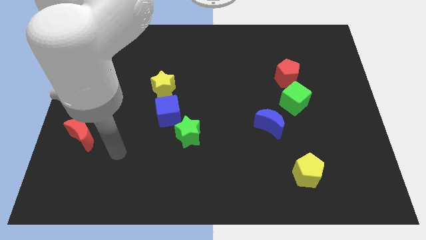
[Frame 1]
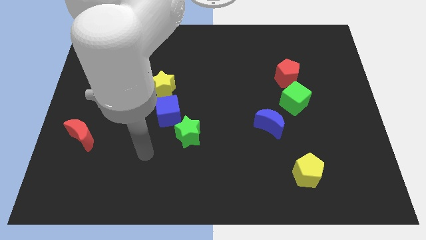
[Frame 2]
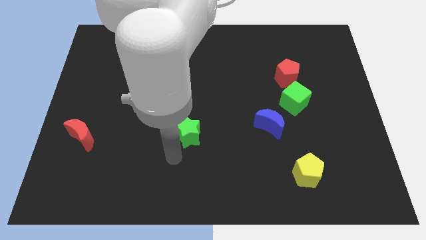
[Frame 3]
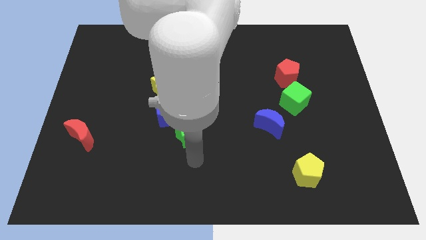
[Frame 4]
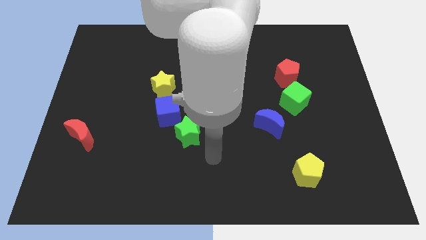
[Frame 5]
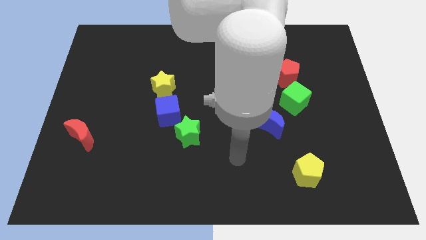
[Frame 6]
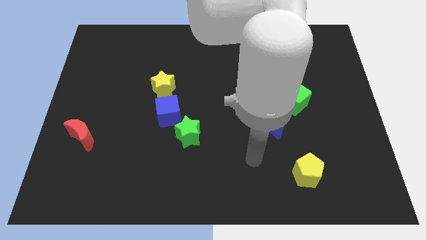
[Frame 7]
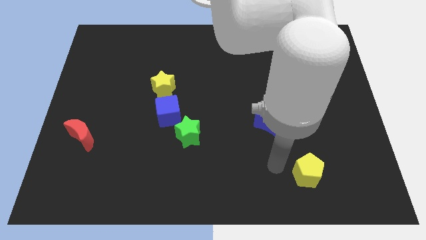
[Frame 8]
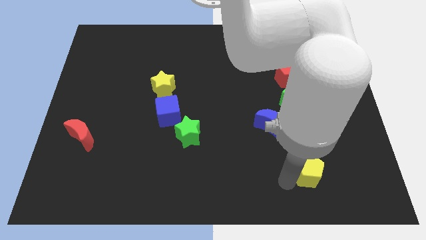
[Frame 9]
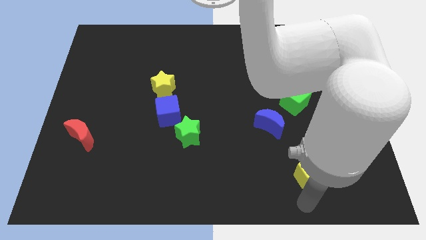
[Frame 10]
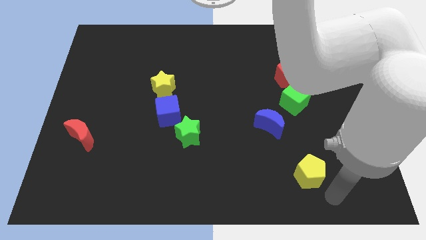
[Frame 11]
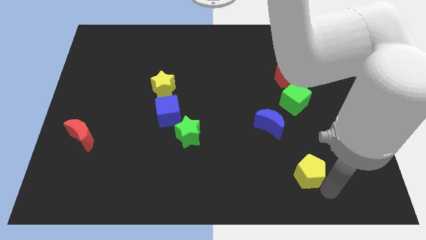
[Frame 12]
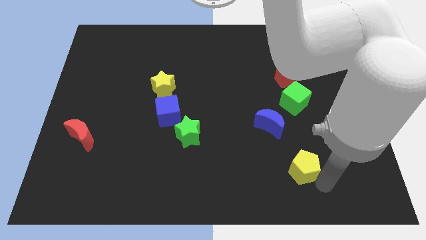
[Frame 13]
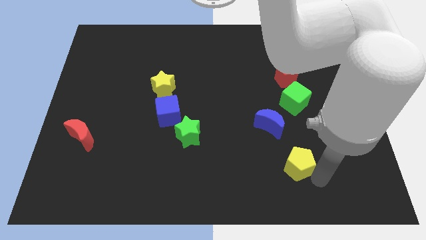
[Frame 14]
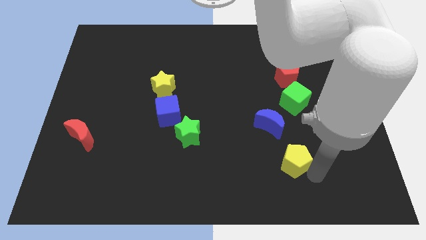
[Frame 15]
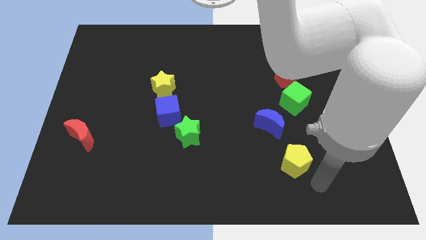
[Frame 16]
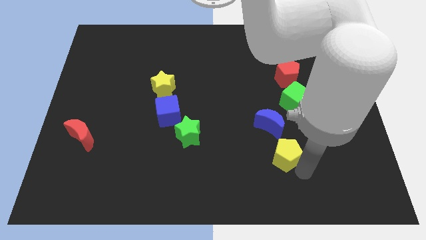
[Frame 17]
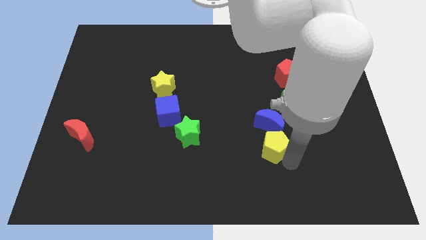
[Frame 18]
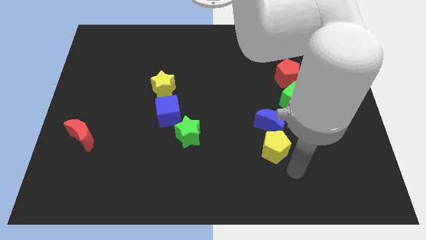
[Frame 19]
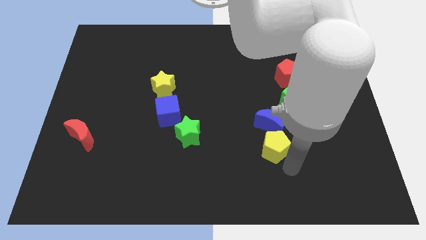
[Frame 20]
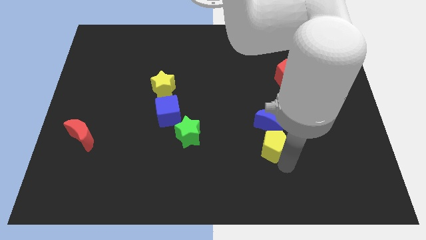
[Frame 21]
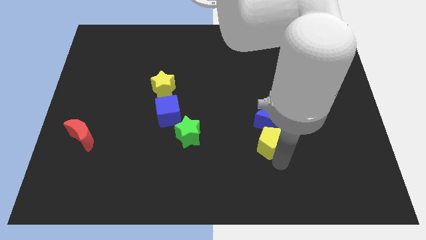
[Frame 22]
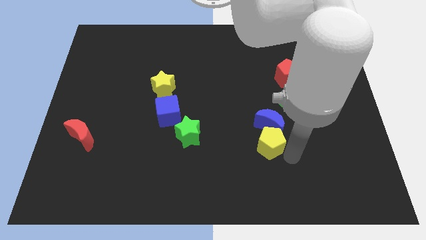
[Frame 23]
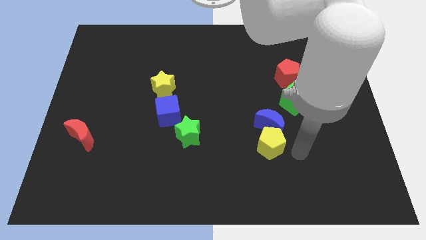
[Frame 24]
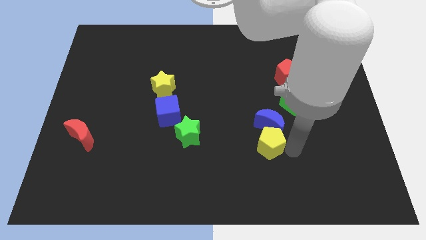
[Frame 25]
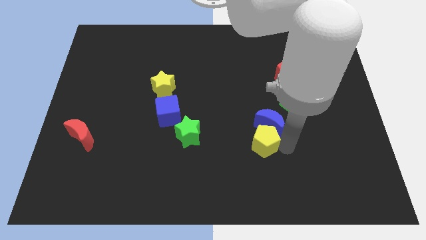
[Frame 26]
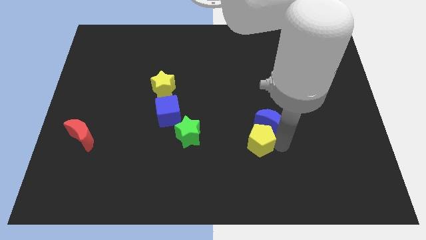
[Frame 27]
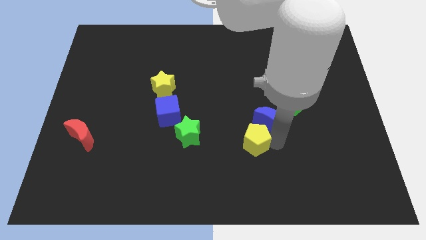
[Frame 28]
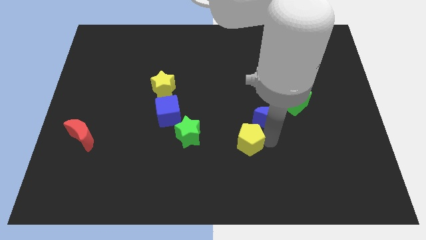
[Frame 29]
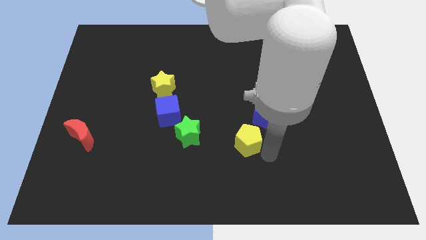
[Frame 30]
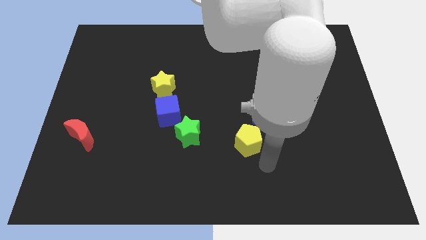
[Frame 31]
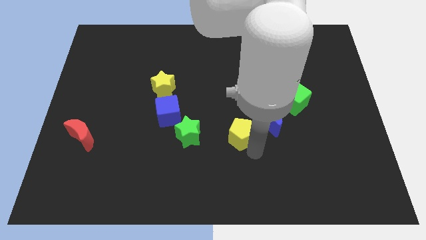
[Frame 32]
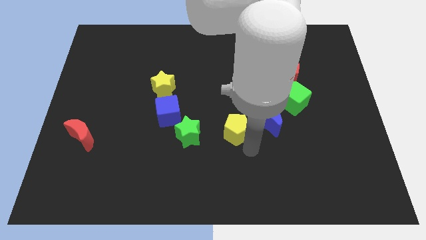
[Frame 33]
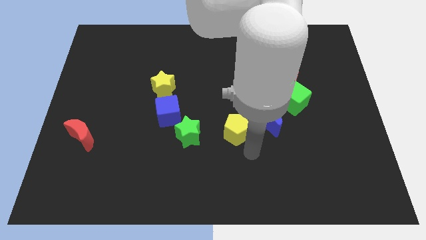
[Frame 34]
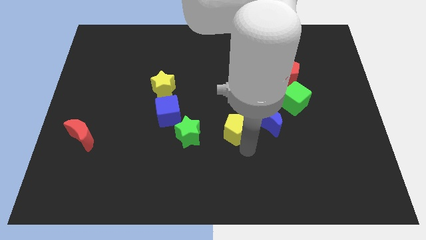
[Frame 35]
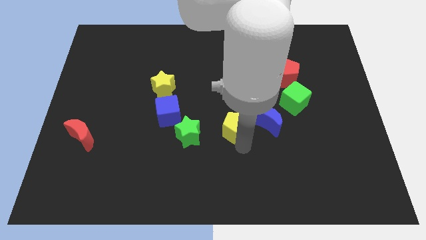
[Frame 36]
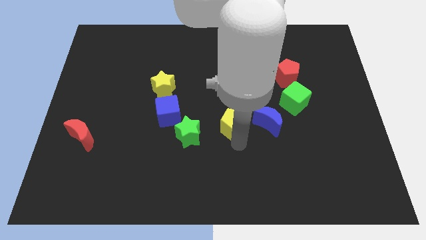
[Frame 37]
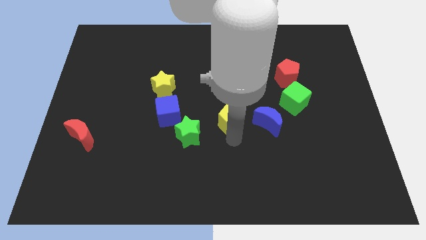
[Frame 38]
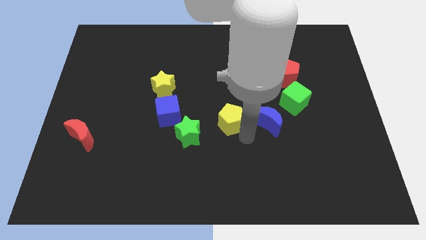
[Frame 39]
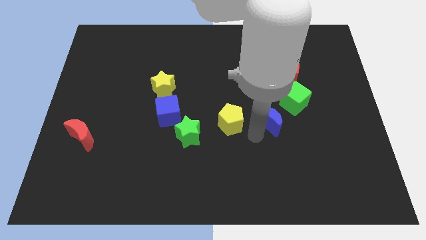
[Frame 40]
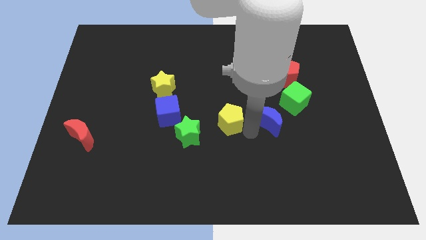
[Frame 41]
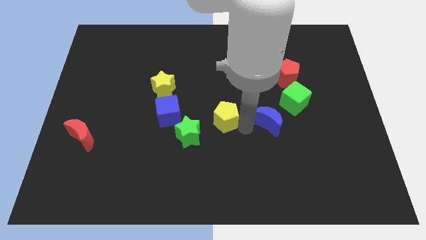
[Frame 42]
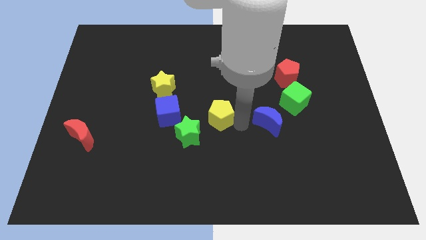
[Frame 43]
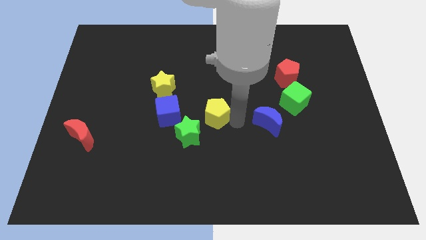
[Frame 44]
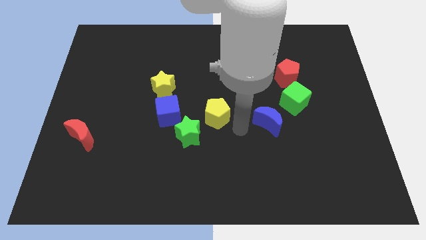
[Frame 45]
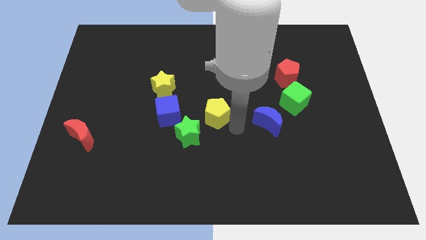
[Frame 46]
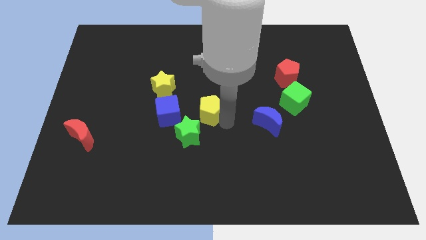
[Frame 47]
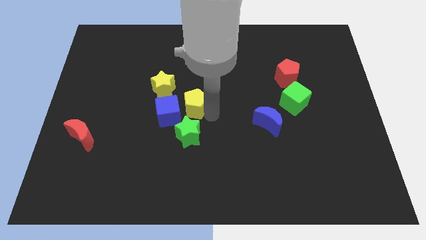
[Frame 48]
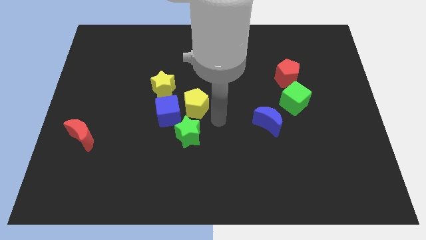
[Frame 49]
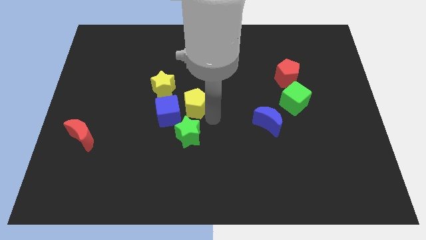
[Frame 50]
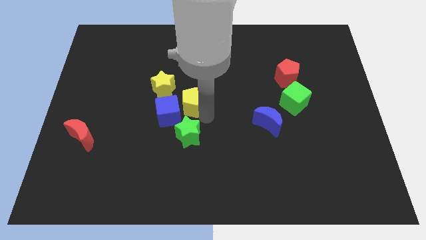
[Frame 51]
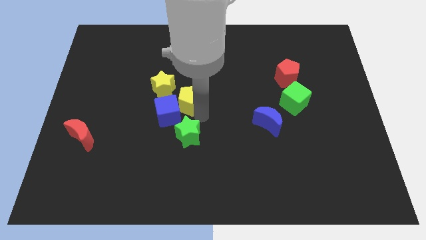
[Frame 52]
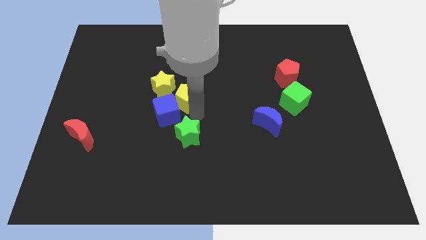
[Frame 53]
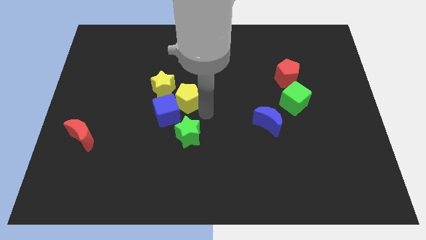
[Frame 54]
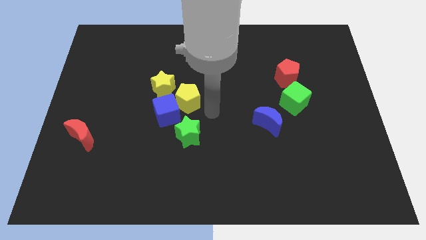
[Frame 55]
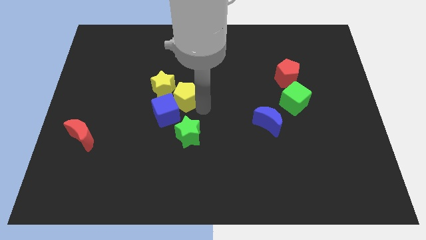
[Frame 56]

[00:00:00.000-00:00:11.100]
put the yellow pentagon to the yellow star

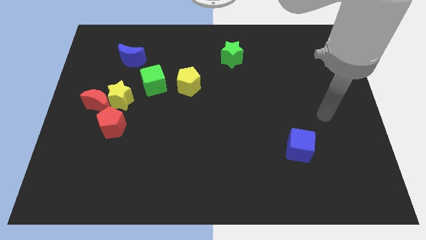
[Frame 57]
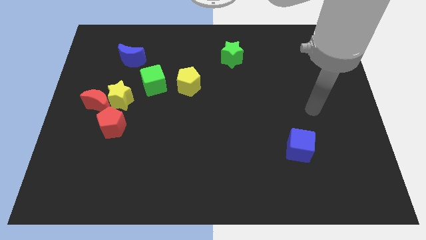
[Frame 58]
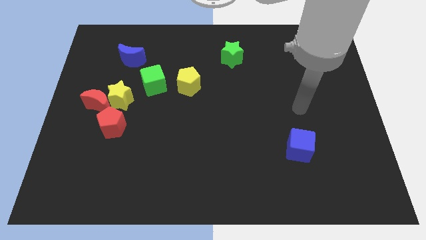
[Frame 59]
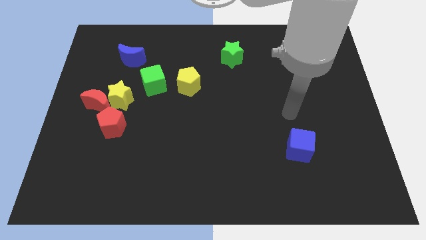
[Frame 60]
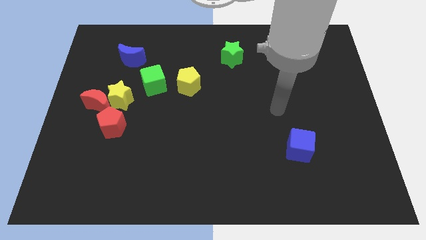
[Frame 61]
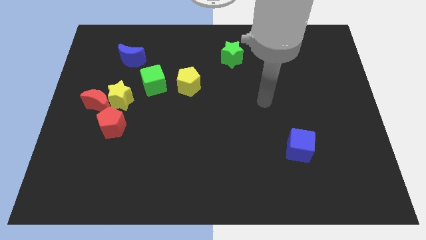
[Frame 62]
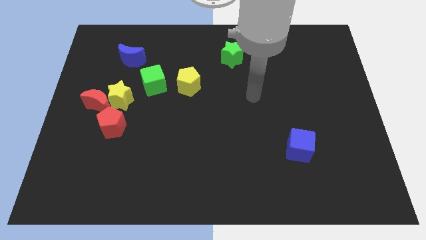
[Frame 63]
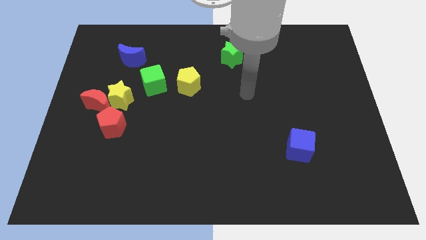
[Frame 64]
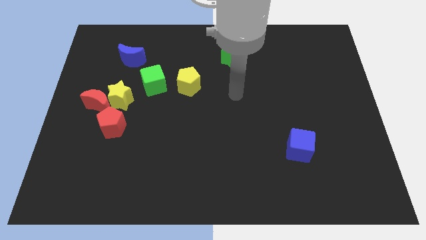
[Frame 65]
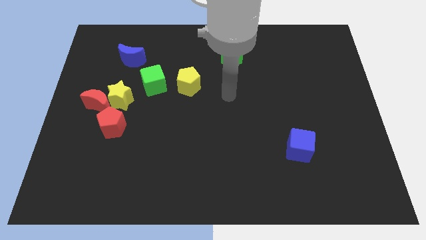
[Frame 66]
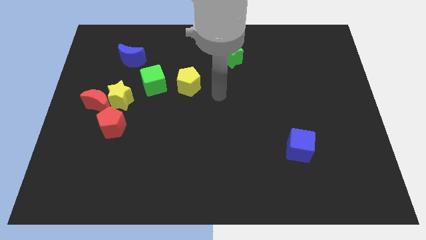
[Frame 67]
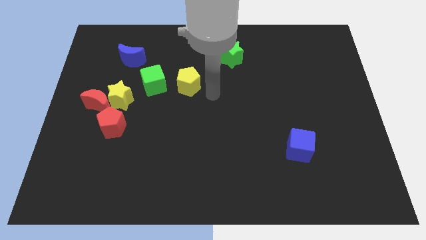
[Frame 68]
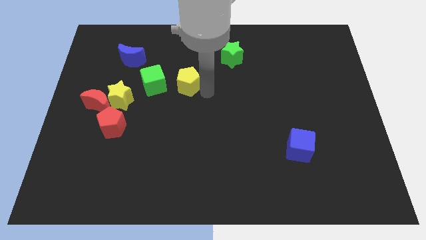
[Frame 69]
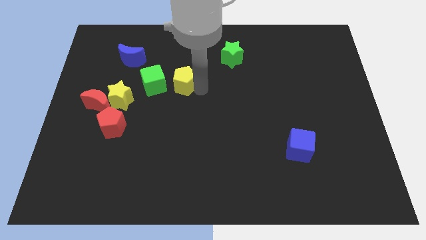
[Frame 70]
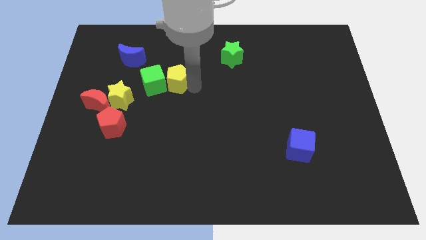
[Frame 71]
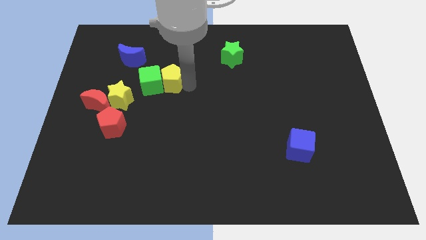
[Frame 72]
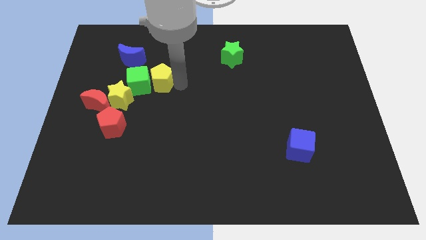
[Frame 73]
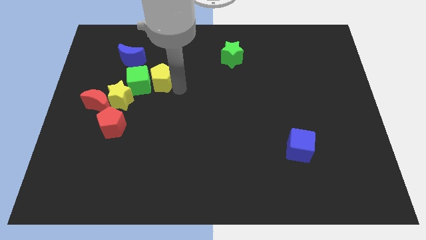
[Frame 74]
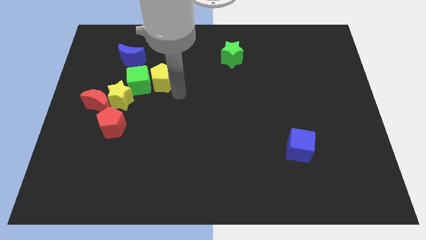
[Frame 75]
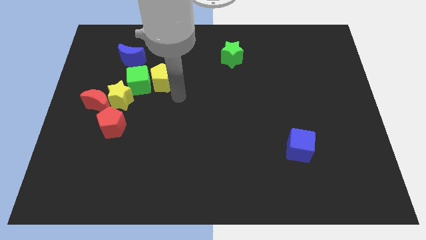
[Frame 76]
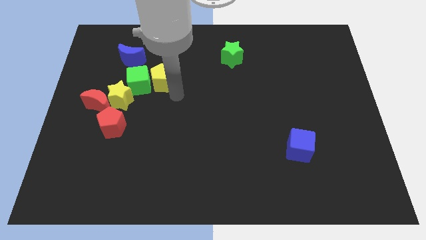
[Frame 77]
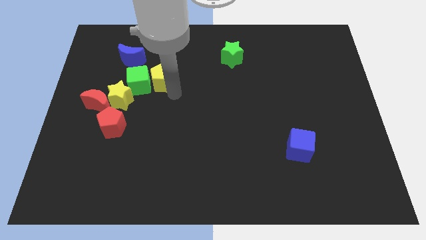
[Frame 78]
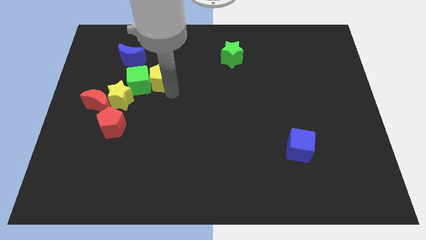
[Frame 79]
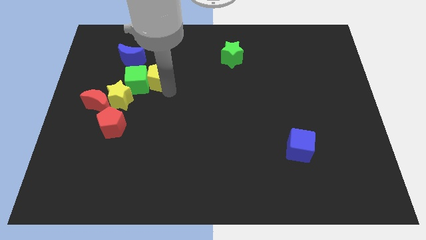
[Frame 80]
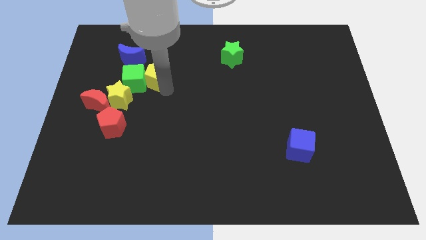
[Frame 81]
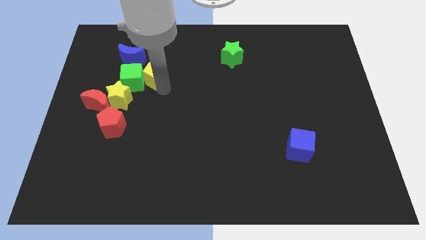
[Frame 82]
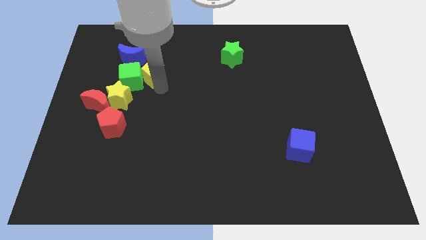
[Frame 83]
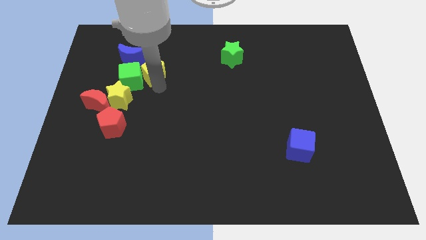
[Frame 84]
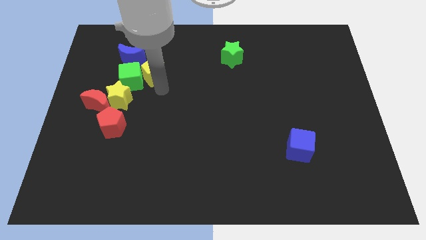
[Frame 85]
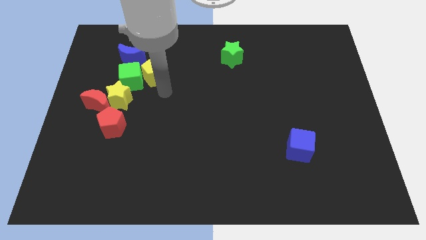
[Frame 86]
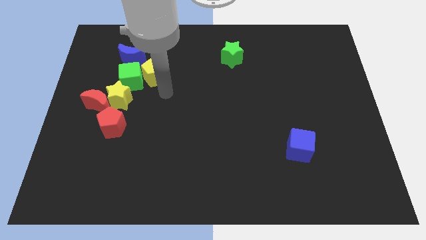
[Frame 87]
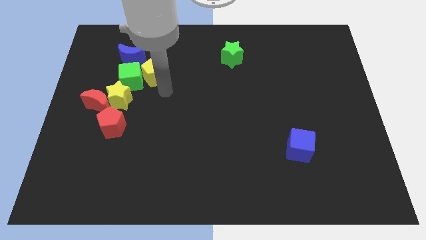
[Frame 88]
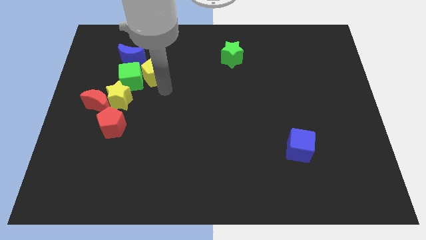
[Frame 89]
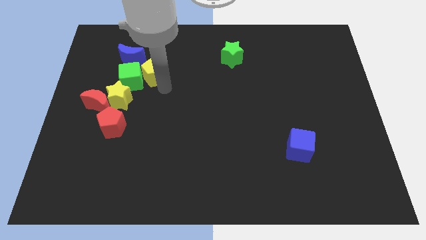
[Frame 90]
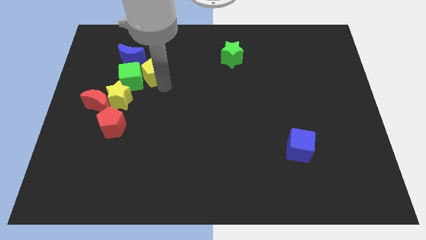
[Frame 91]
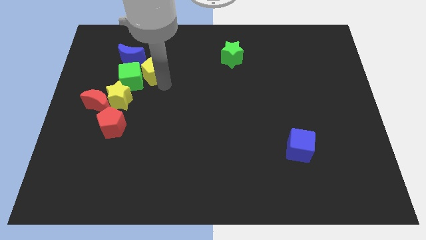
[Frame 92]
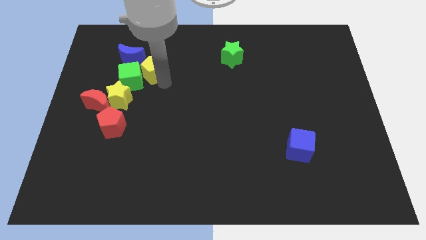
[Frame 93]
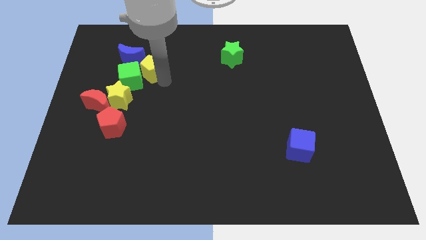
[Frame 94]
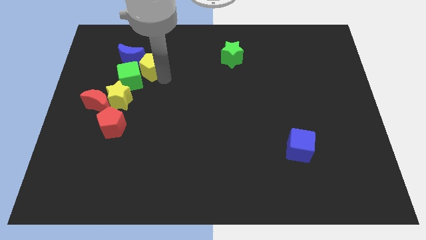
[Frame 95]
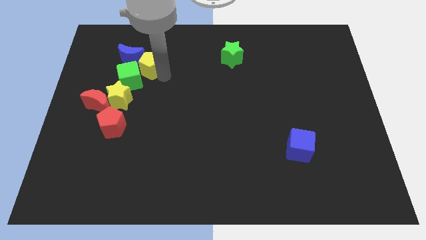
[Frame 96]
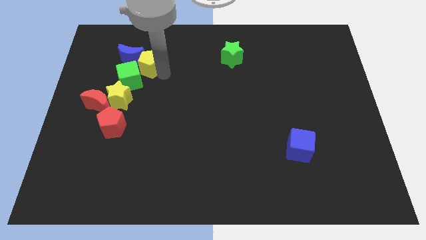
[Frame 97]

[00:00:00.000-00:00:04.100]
move the yellow pentagon close to the blue moon
